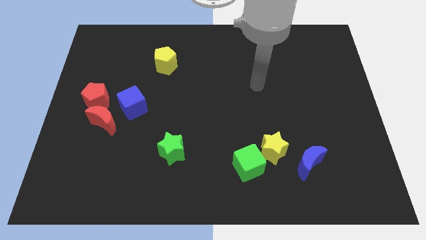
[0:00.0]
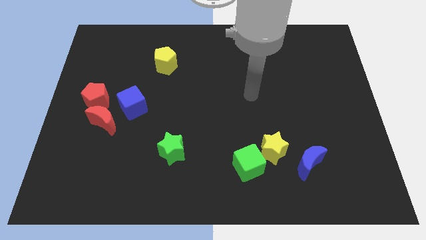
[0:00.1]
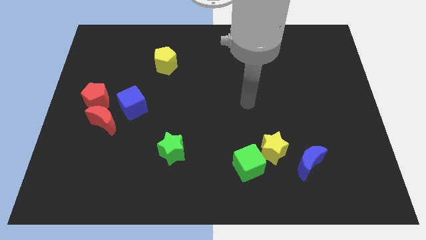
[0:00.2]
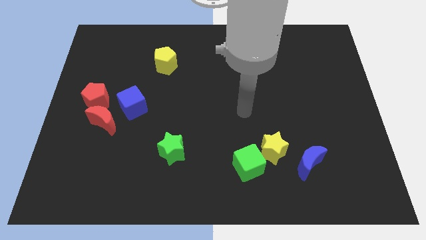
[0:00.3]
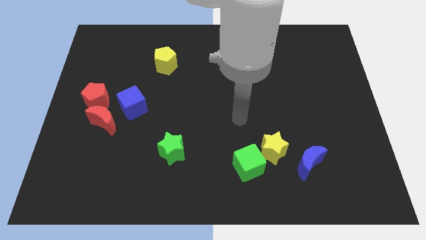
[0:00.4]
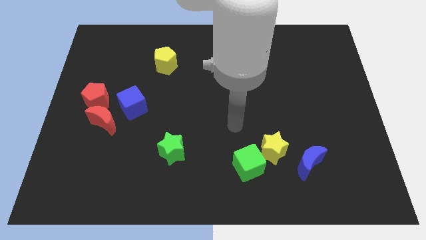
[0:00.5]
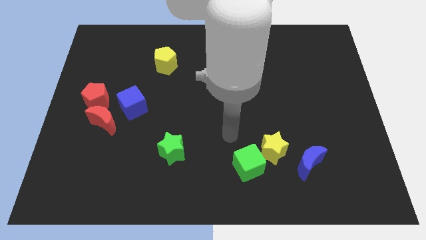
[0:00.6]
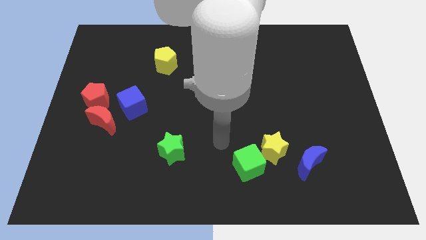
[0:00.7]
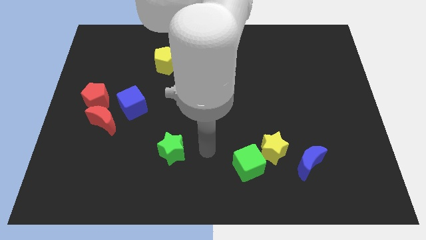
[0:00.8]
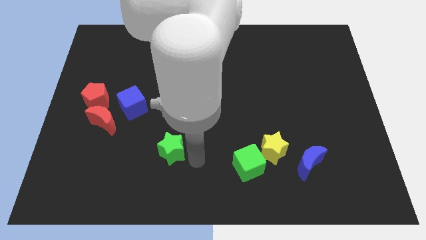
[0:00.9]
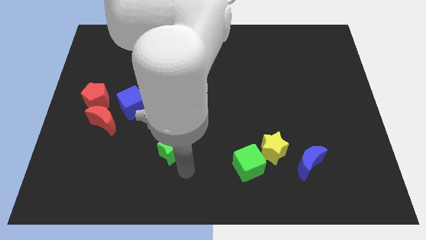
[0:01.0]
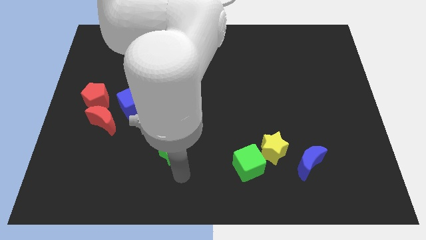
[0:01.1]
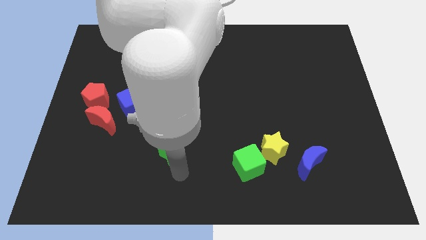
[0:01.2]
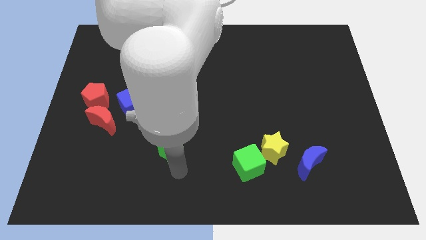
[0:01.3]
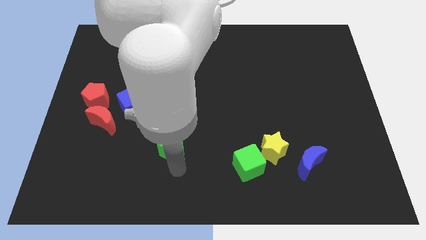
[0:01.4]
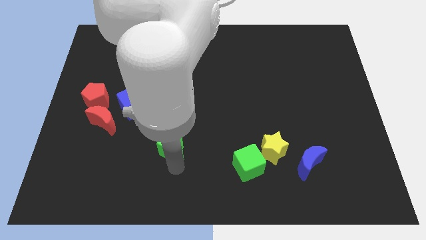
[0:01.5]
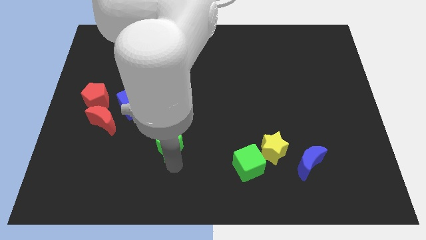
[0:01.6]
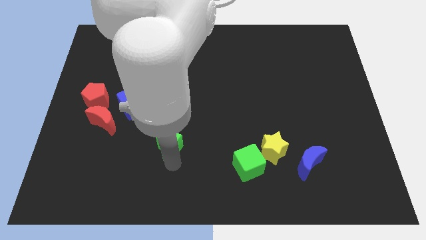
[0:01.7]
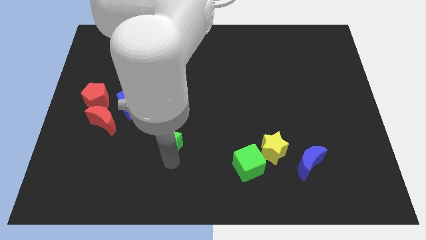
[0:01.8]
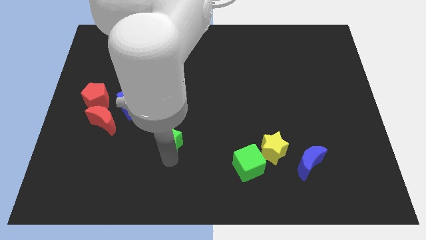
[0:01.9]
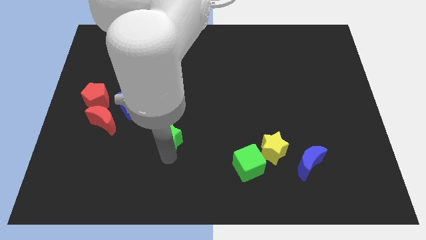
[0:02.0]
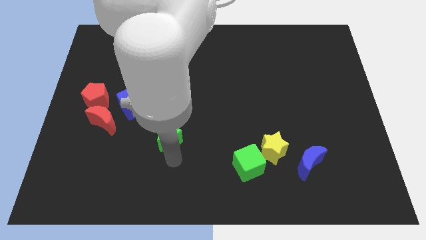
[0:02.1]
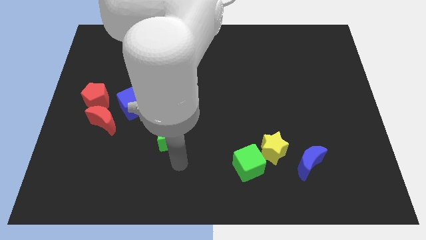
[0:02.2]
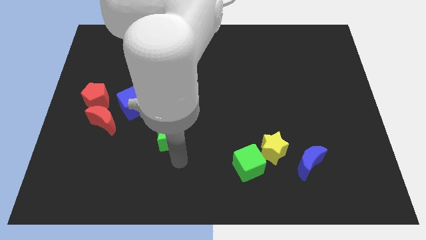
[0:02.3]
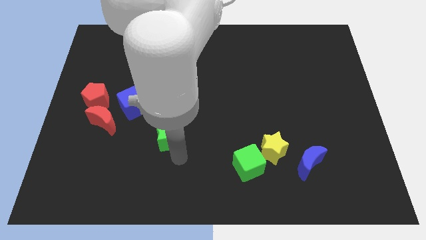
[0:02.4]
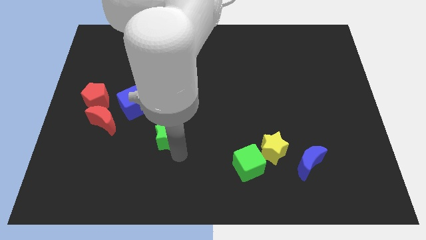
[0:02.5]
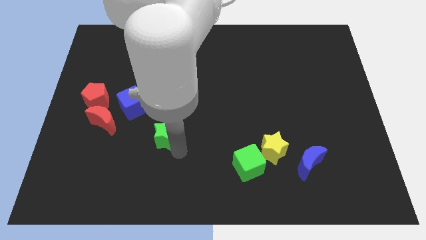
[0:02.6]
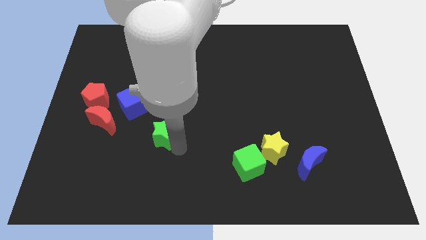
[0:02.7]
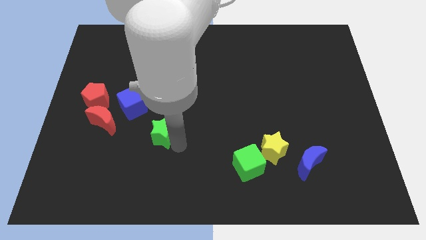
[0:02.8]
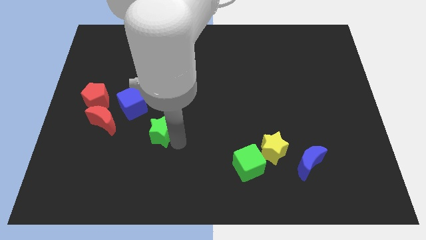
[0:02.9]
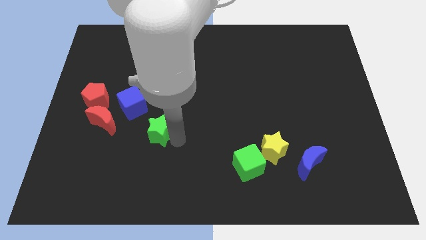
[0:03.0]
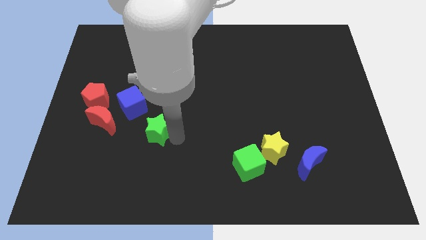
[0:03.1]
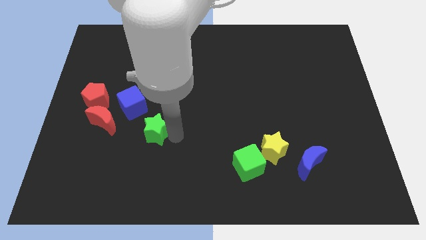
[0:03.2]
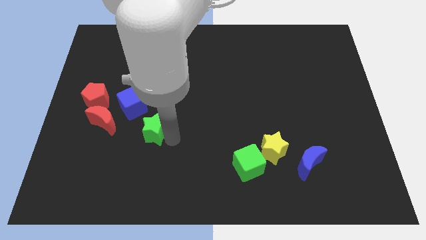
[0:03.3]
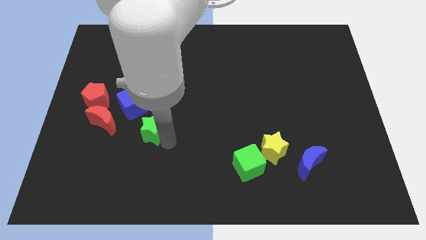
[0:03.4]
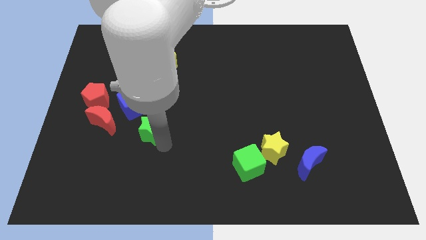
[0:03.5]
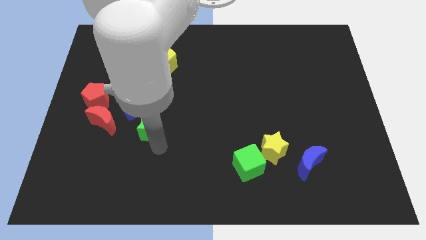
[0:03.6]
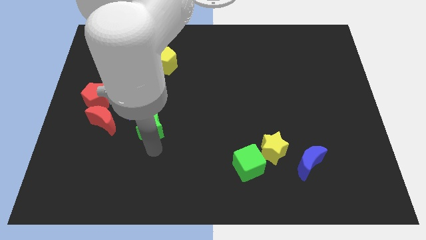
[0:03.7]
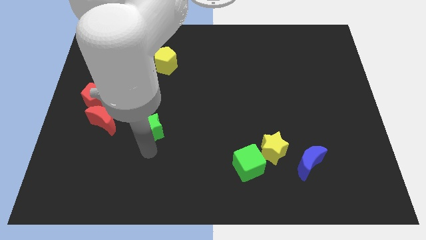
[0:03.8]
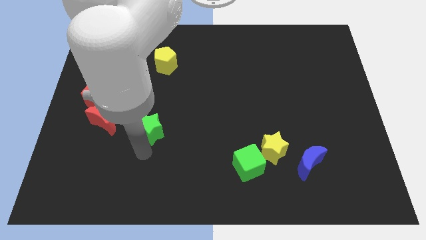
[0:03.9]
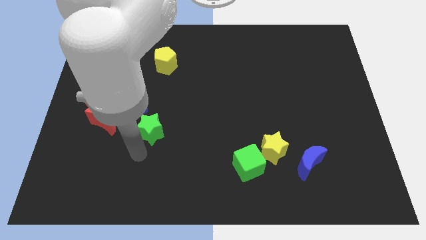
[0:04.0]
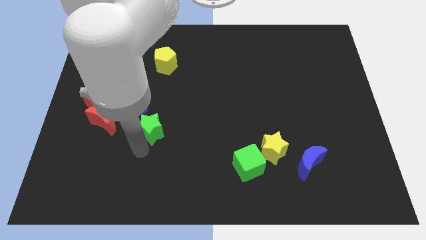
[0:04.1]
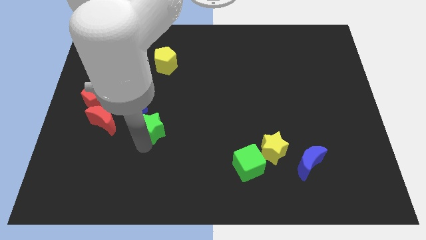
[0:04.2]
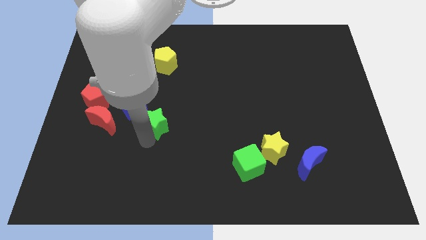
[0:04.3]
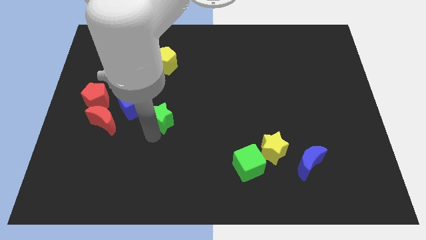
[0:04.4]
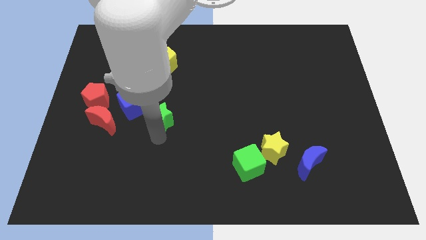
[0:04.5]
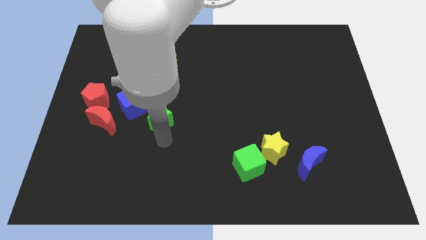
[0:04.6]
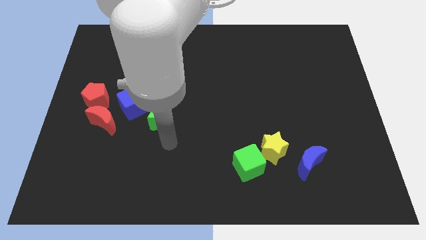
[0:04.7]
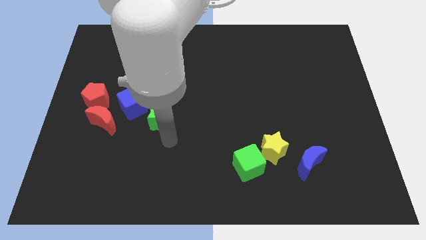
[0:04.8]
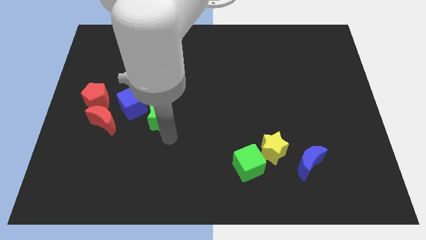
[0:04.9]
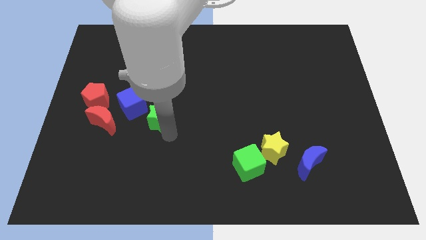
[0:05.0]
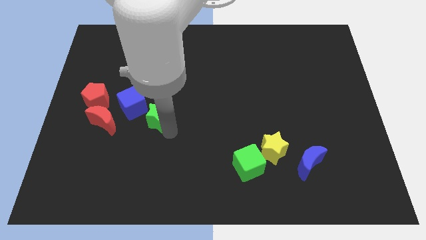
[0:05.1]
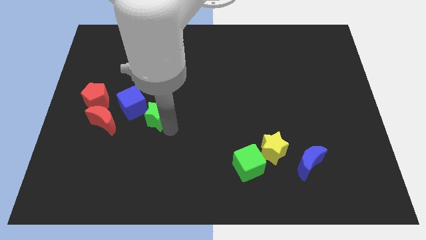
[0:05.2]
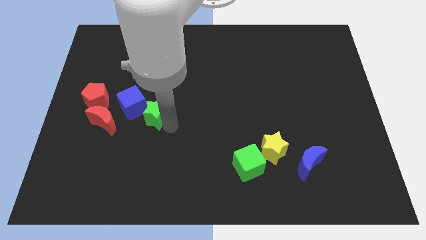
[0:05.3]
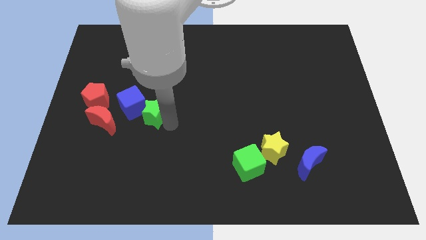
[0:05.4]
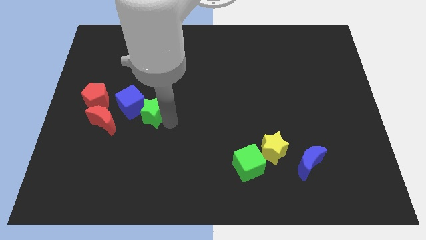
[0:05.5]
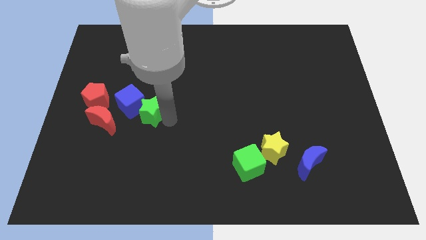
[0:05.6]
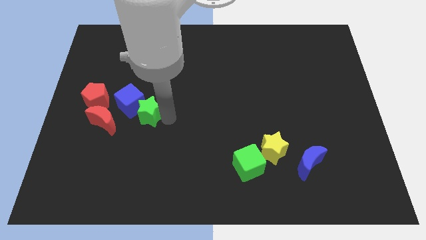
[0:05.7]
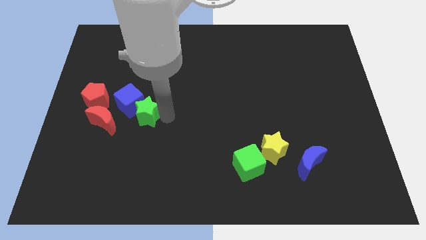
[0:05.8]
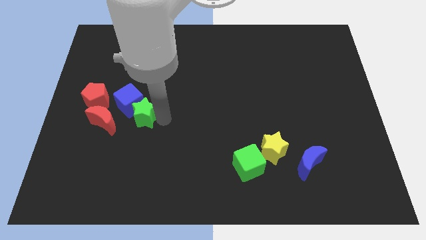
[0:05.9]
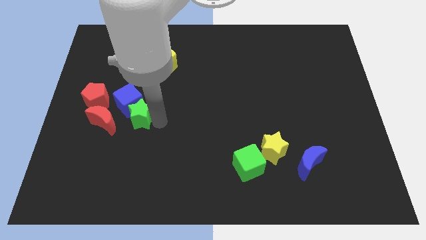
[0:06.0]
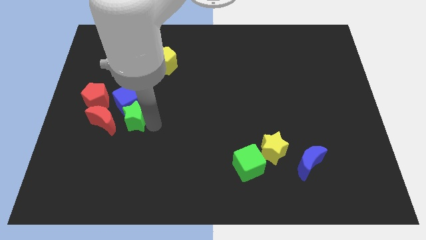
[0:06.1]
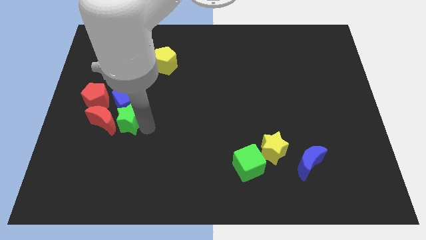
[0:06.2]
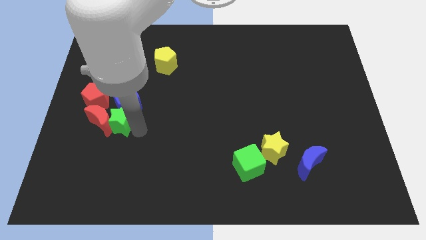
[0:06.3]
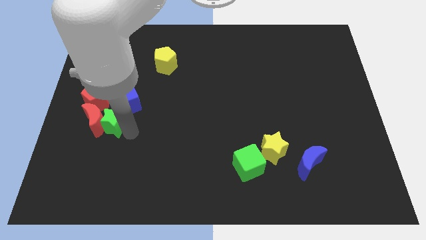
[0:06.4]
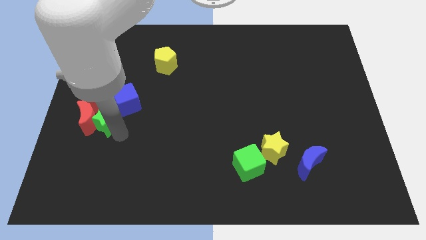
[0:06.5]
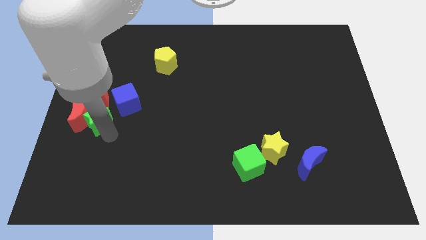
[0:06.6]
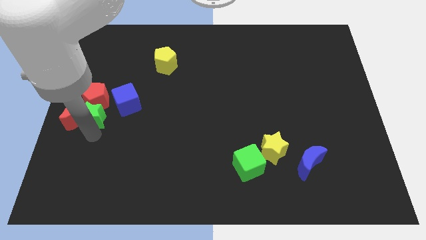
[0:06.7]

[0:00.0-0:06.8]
move the green star next to the red pentagon

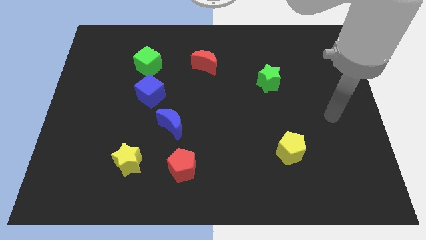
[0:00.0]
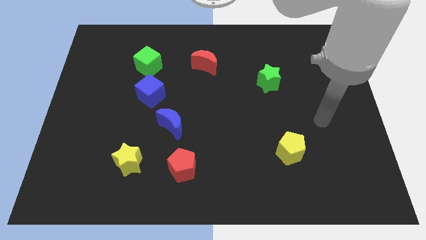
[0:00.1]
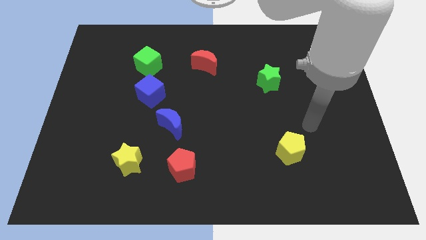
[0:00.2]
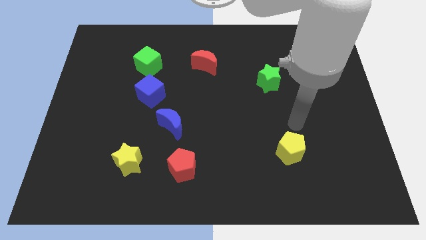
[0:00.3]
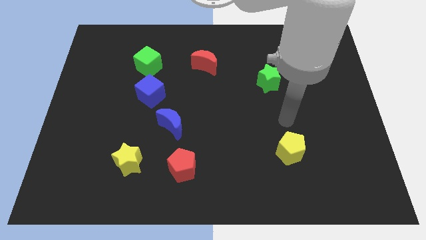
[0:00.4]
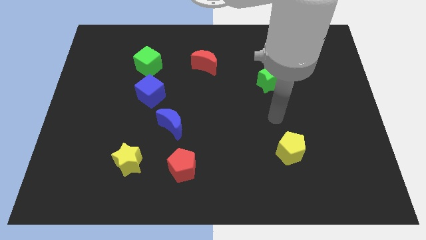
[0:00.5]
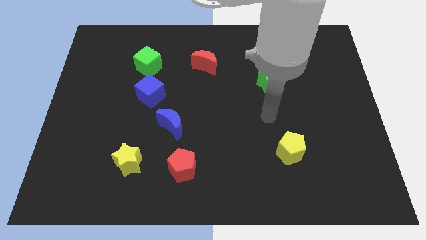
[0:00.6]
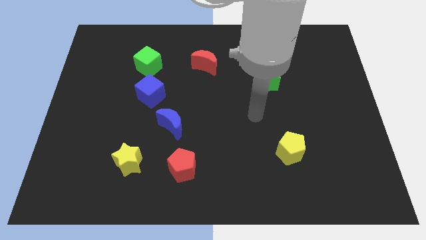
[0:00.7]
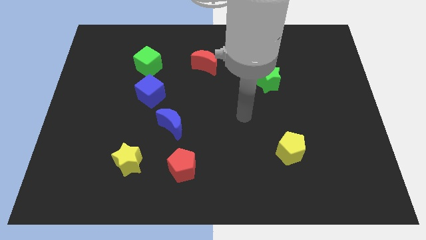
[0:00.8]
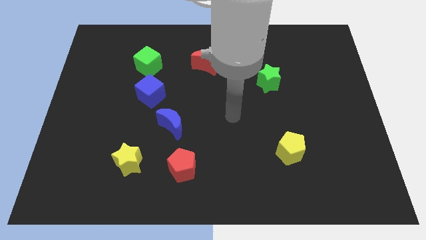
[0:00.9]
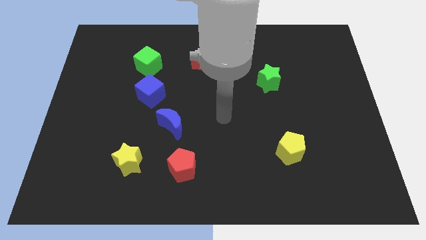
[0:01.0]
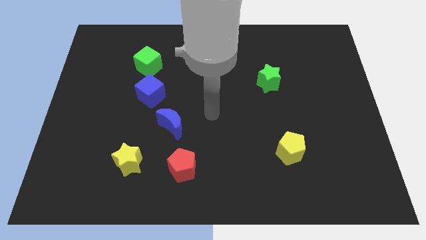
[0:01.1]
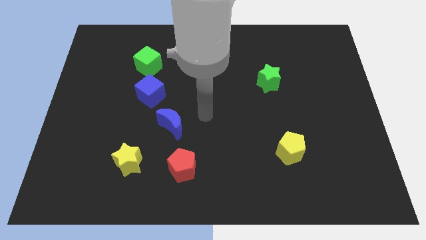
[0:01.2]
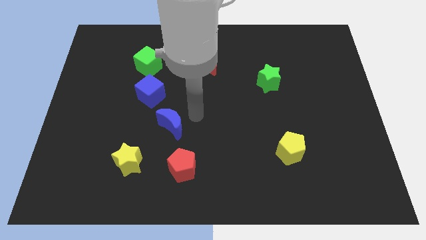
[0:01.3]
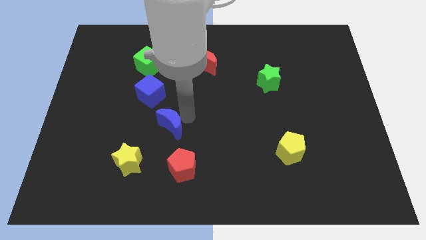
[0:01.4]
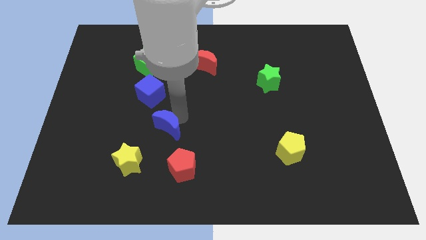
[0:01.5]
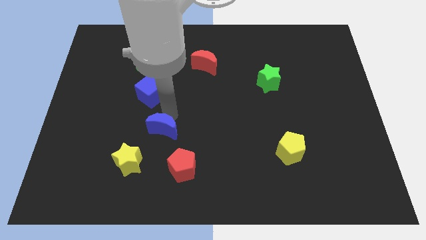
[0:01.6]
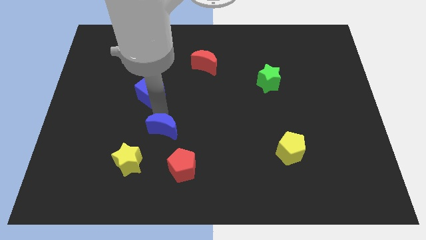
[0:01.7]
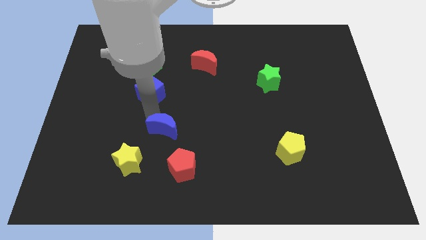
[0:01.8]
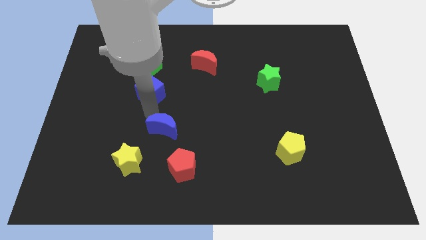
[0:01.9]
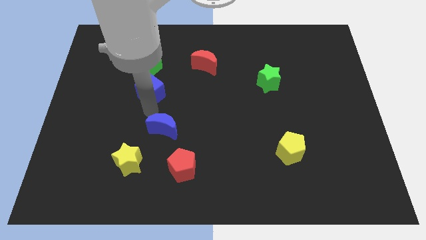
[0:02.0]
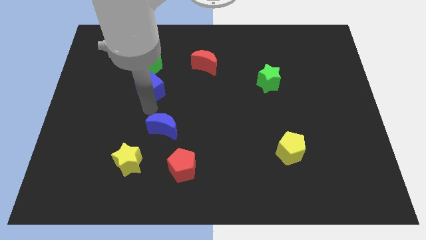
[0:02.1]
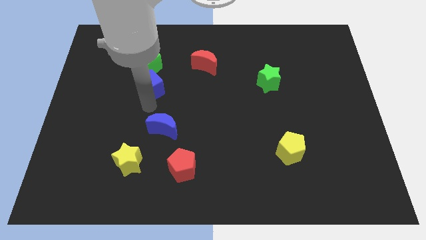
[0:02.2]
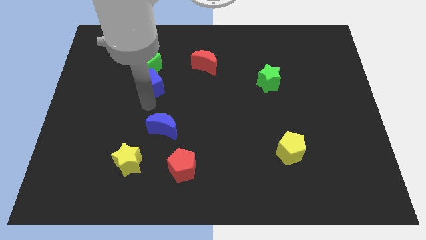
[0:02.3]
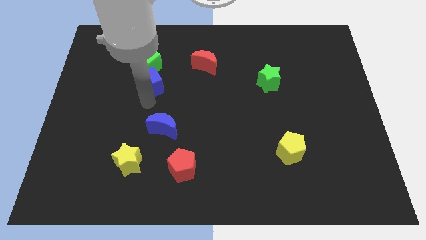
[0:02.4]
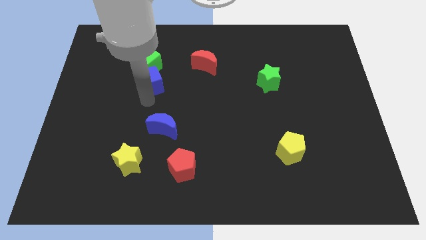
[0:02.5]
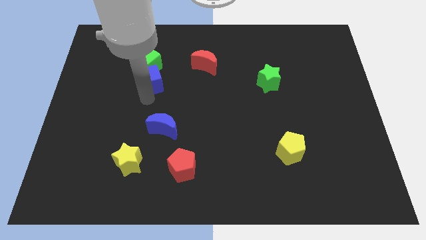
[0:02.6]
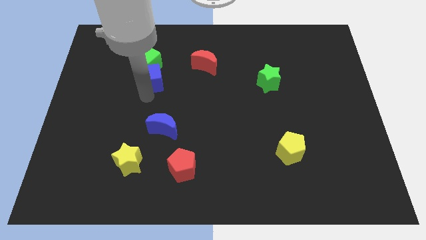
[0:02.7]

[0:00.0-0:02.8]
push the blue cube close to the green cube
